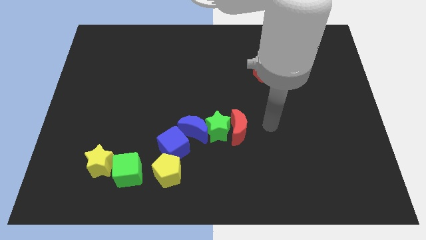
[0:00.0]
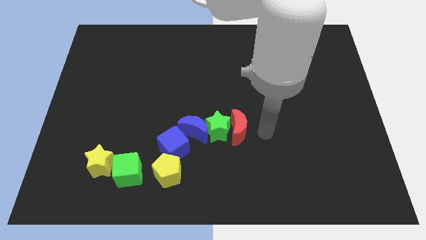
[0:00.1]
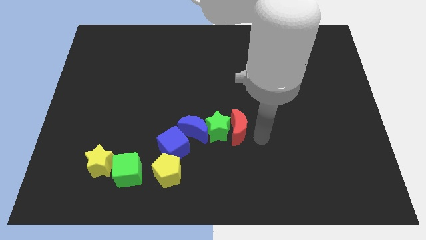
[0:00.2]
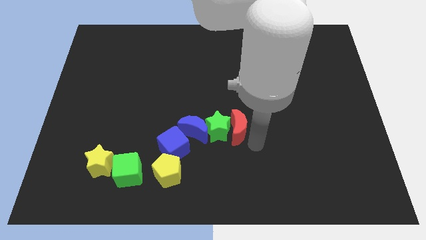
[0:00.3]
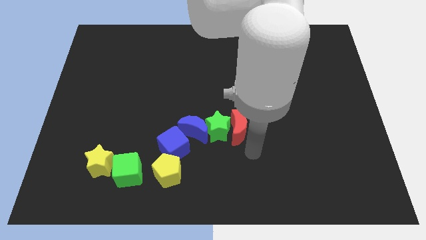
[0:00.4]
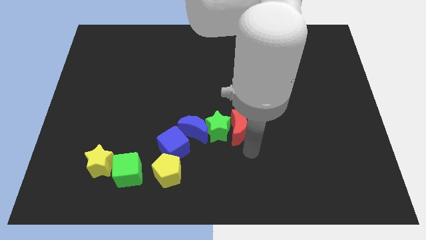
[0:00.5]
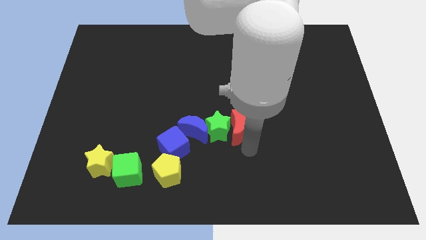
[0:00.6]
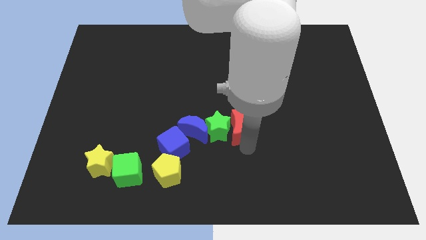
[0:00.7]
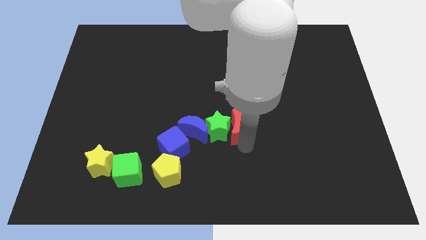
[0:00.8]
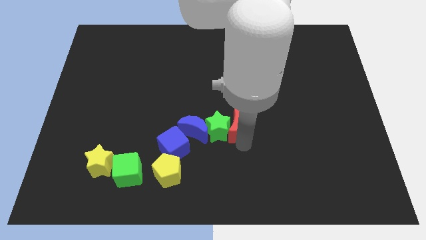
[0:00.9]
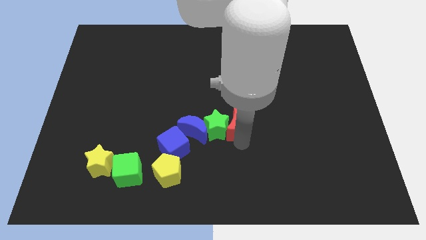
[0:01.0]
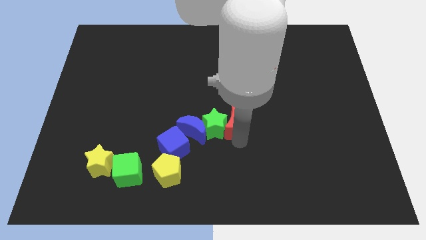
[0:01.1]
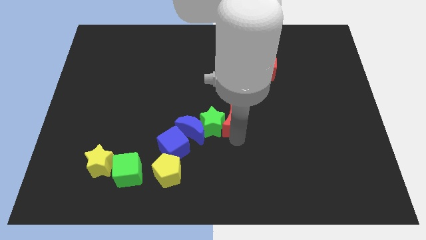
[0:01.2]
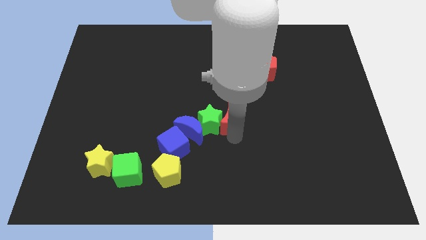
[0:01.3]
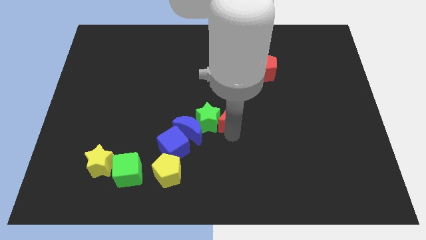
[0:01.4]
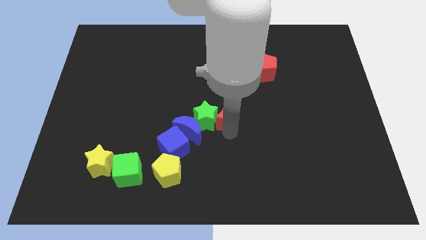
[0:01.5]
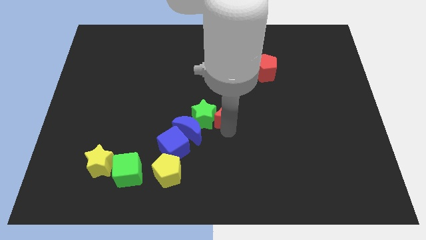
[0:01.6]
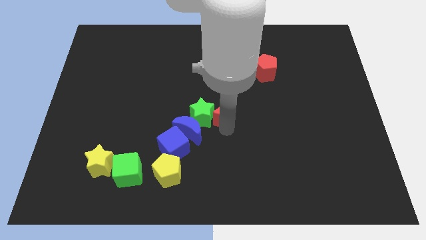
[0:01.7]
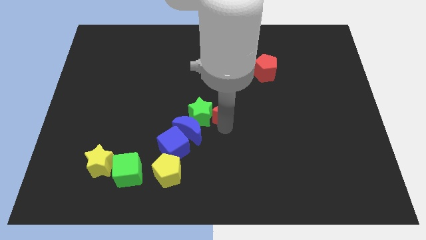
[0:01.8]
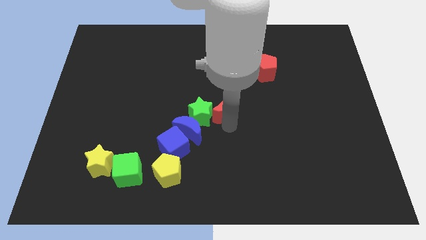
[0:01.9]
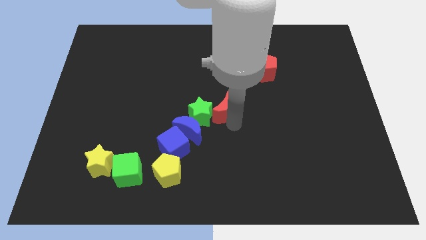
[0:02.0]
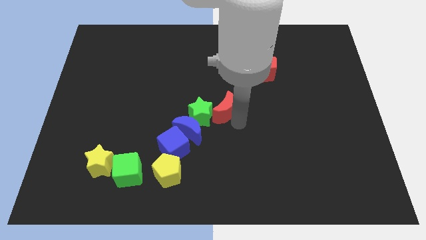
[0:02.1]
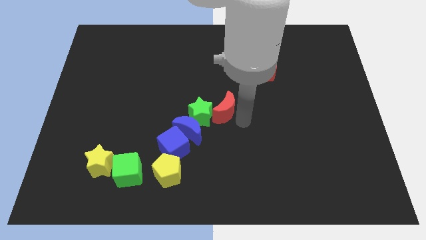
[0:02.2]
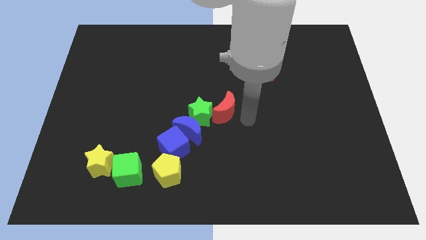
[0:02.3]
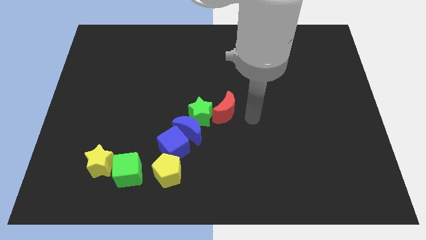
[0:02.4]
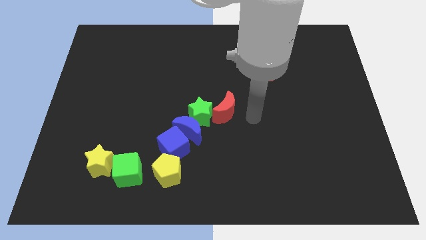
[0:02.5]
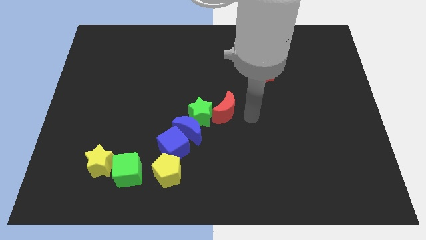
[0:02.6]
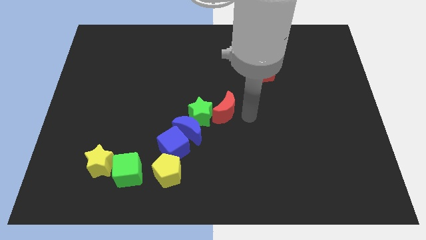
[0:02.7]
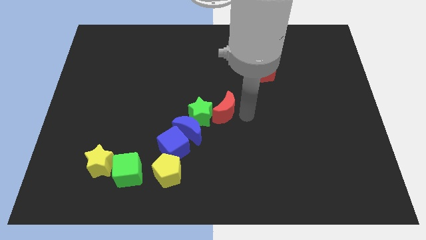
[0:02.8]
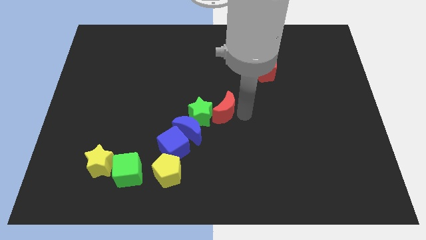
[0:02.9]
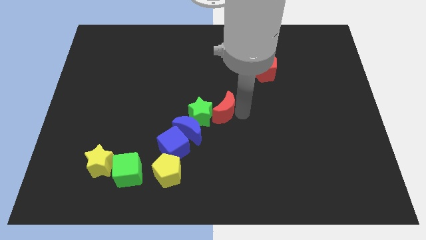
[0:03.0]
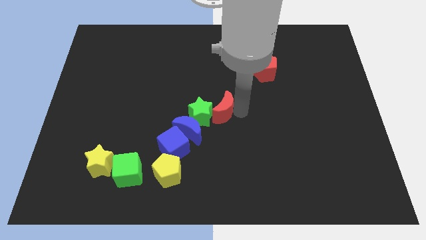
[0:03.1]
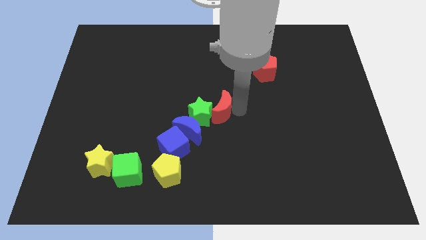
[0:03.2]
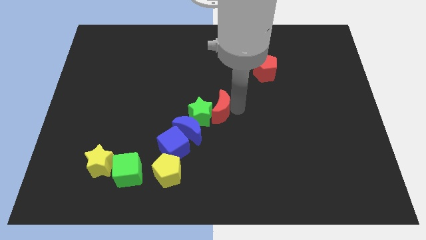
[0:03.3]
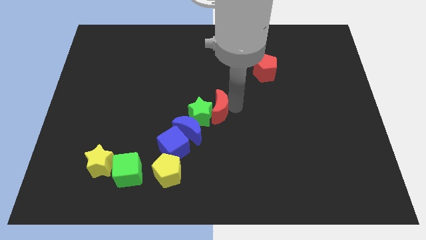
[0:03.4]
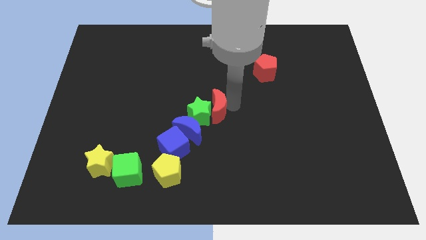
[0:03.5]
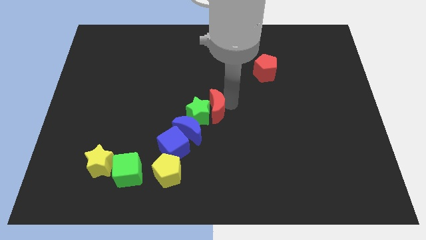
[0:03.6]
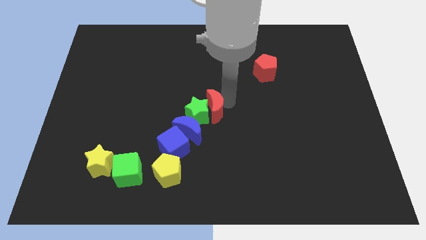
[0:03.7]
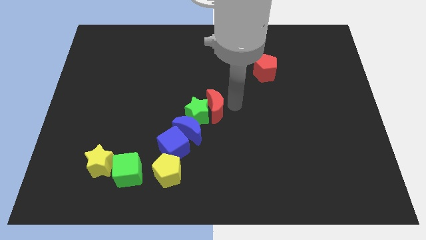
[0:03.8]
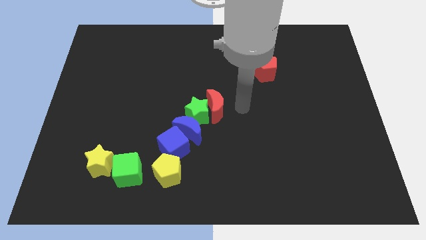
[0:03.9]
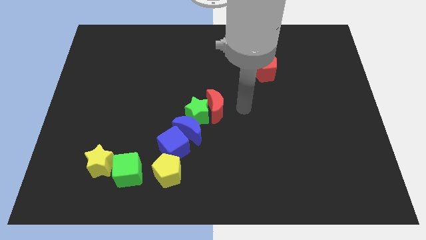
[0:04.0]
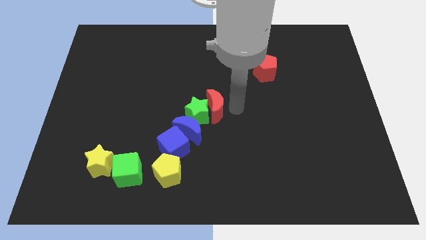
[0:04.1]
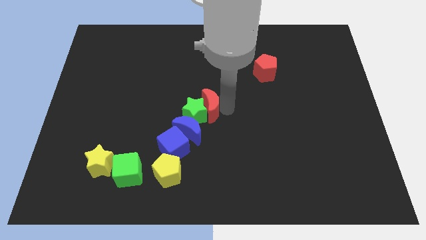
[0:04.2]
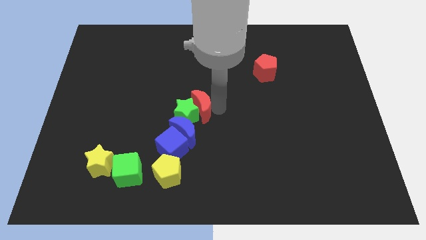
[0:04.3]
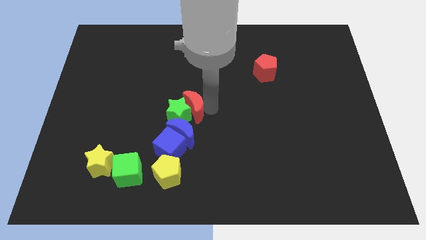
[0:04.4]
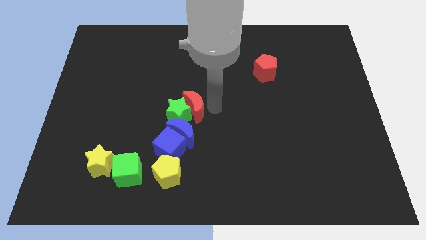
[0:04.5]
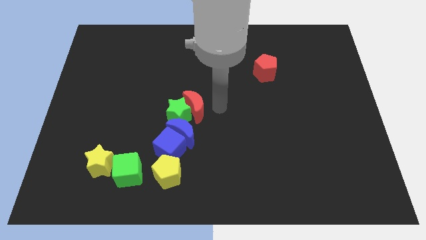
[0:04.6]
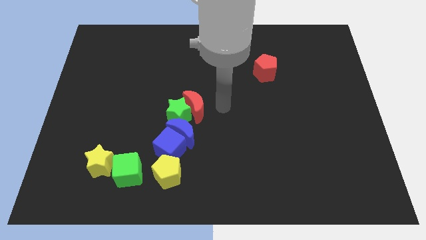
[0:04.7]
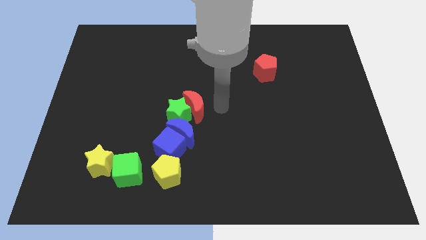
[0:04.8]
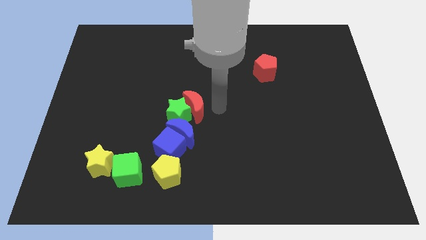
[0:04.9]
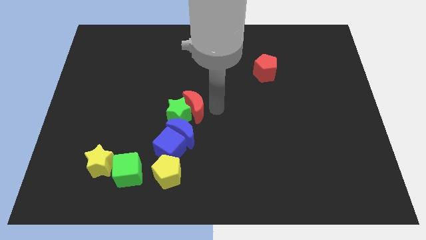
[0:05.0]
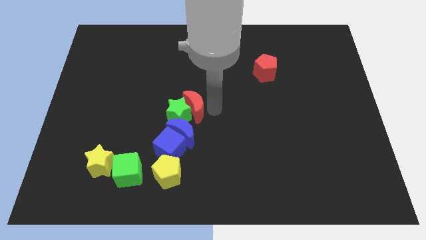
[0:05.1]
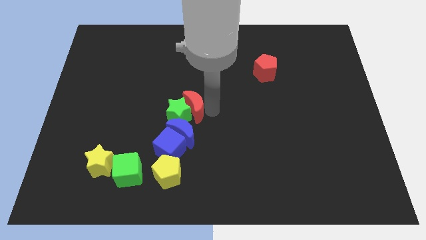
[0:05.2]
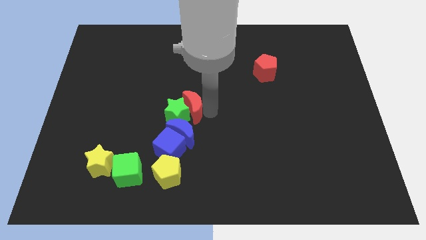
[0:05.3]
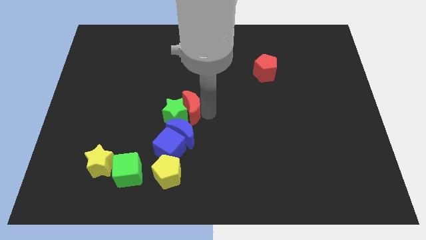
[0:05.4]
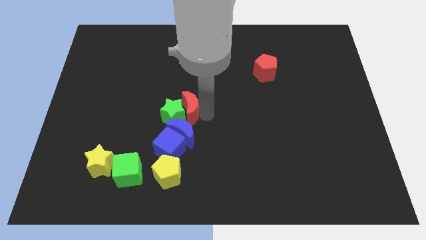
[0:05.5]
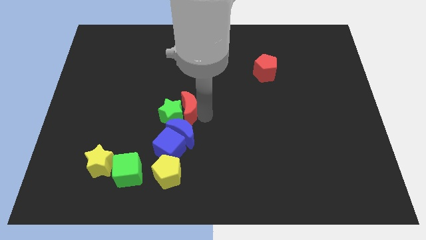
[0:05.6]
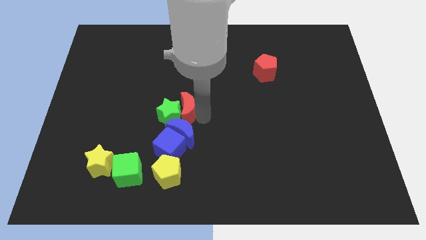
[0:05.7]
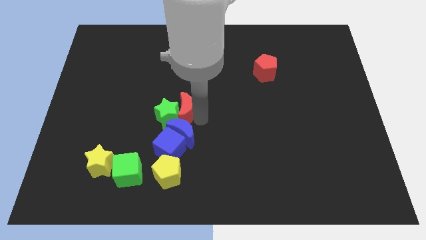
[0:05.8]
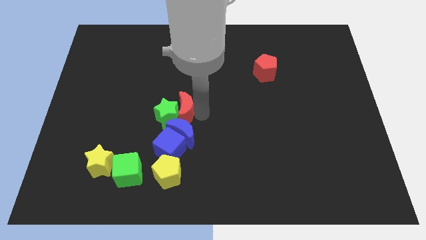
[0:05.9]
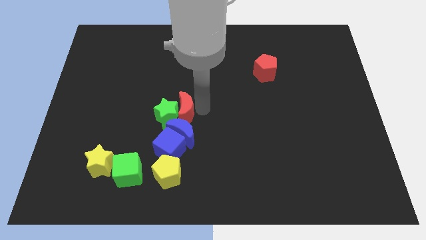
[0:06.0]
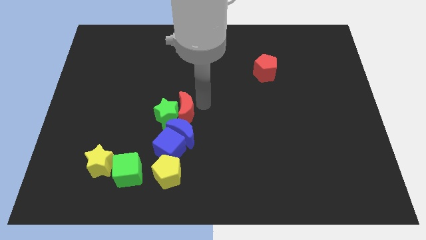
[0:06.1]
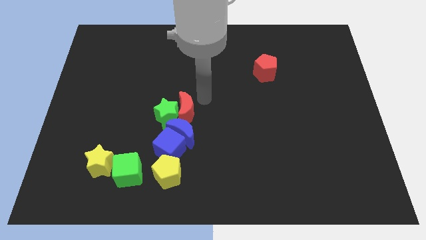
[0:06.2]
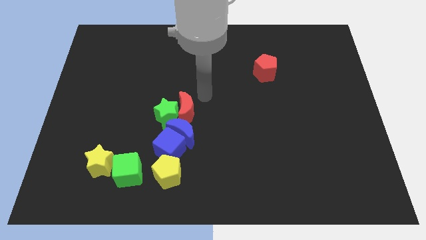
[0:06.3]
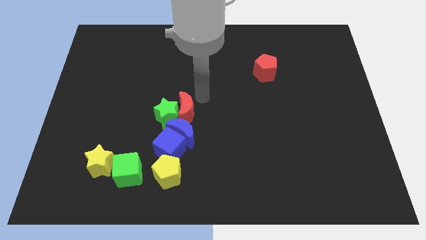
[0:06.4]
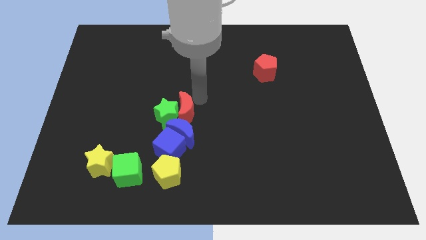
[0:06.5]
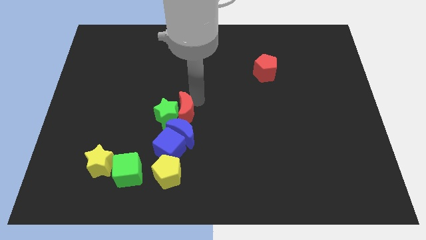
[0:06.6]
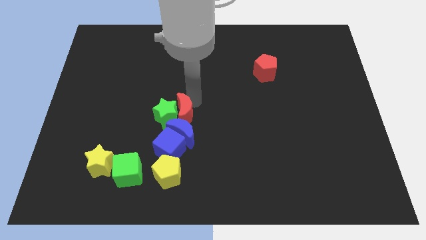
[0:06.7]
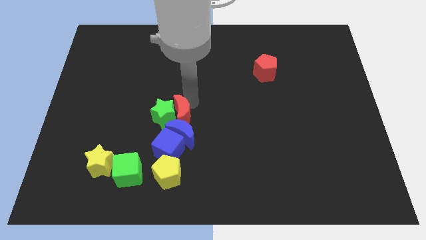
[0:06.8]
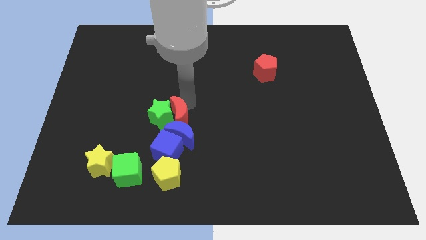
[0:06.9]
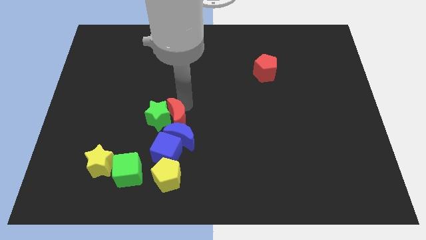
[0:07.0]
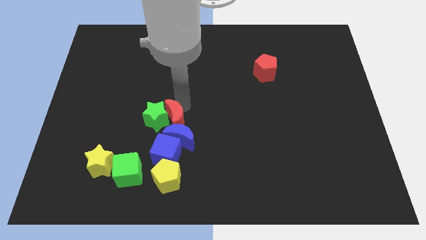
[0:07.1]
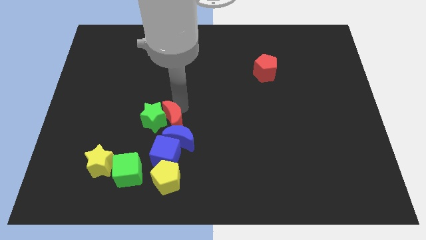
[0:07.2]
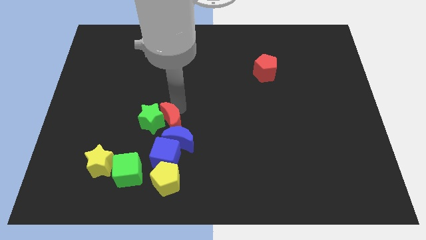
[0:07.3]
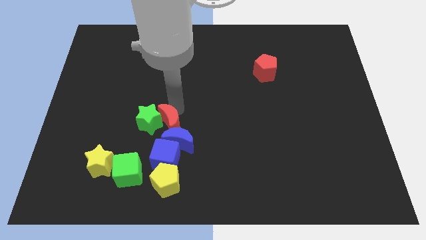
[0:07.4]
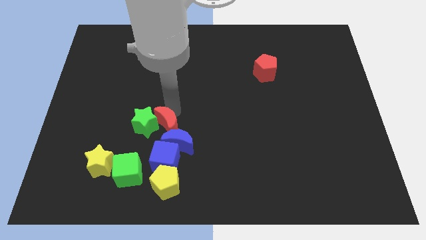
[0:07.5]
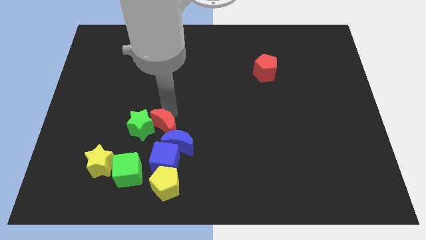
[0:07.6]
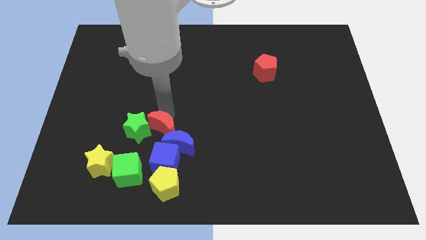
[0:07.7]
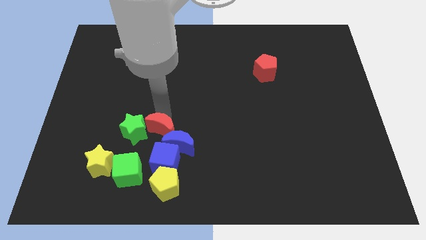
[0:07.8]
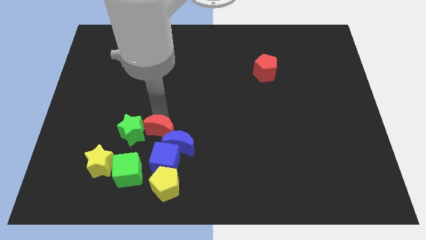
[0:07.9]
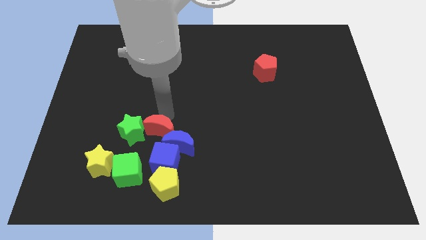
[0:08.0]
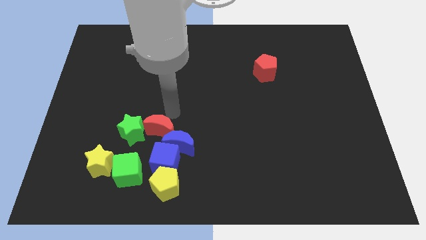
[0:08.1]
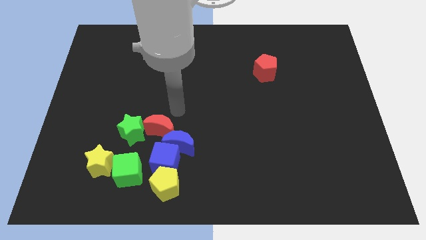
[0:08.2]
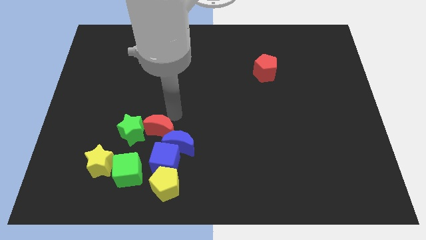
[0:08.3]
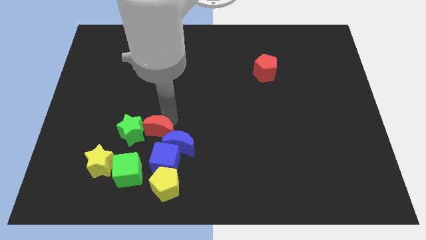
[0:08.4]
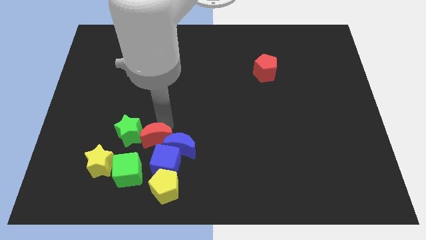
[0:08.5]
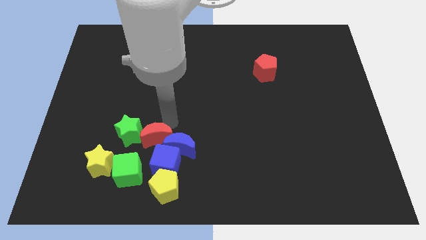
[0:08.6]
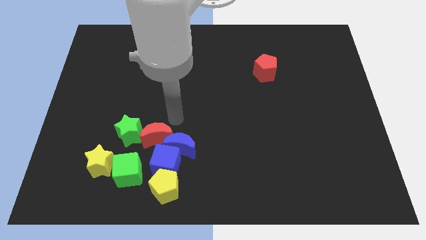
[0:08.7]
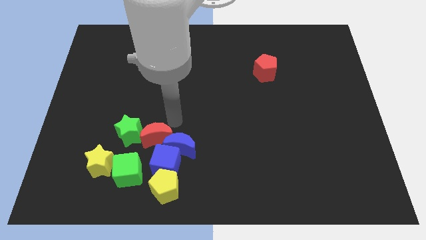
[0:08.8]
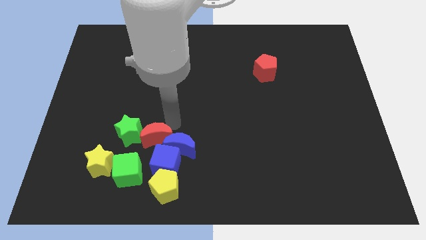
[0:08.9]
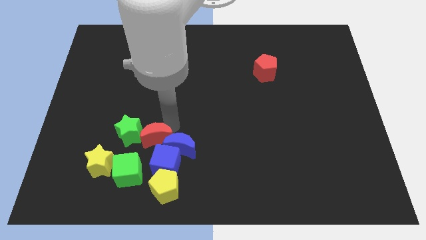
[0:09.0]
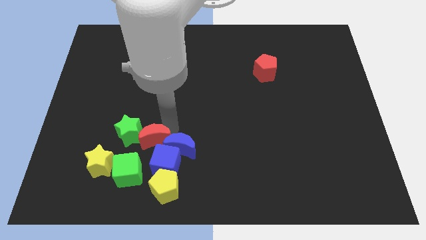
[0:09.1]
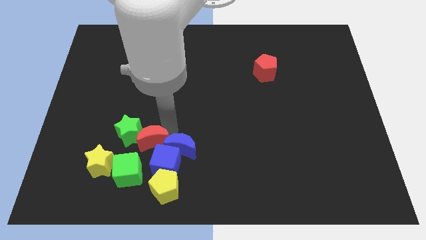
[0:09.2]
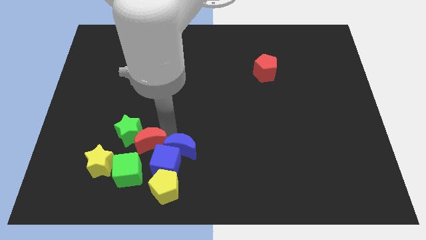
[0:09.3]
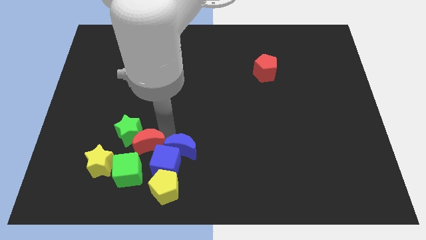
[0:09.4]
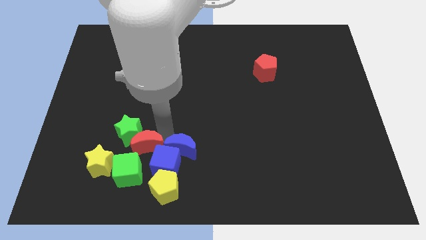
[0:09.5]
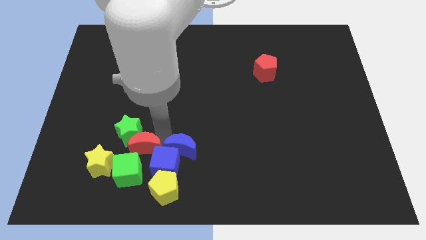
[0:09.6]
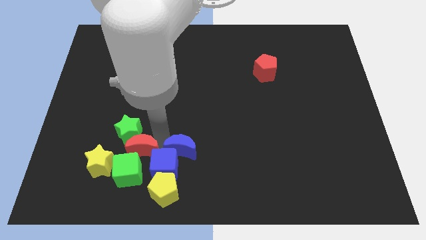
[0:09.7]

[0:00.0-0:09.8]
put the red moon next to the green cube
